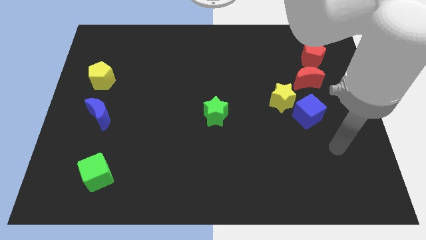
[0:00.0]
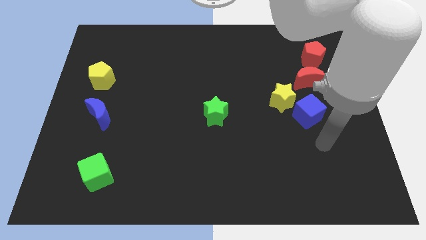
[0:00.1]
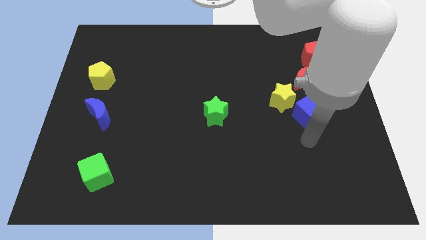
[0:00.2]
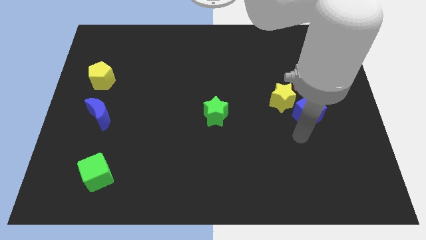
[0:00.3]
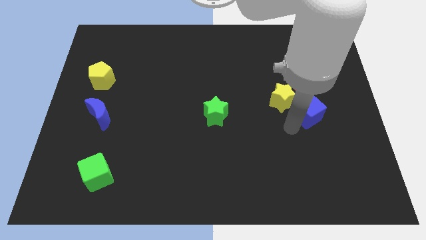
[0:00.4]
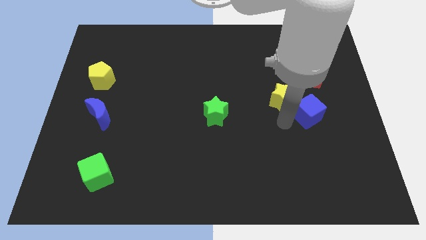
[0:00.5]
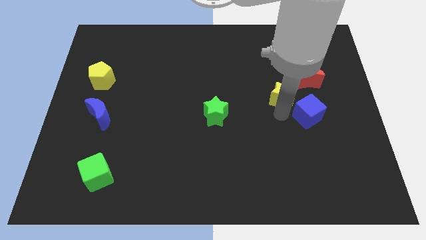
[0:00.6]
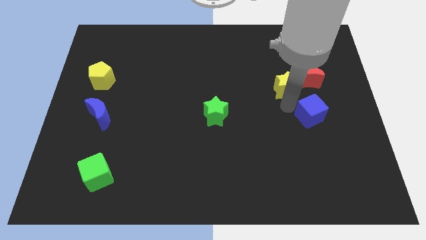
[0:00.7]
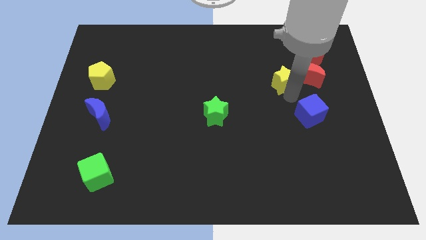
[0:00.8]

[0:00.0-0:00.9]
separate the blue cube from the yellow star

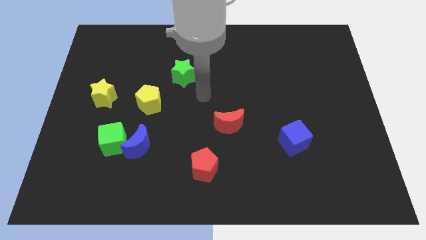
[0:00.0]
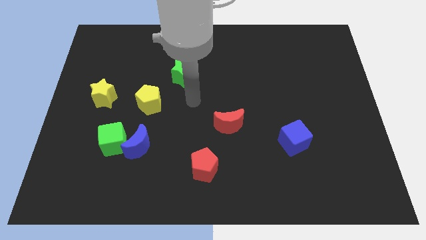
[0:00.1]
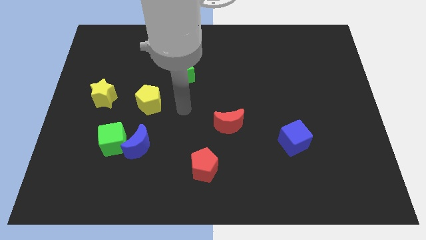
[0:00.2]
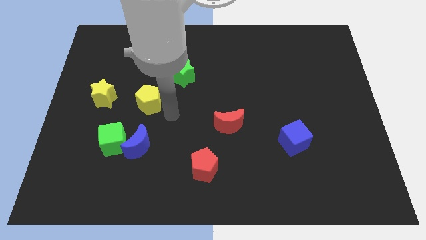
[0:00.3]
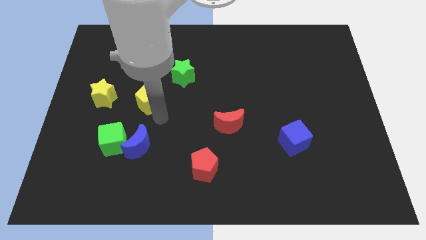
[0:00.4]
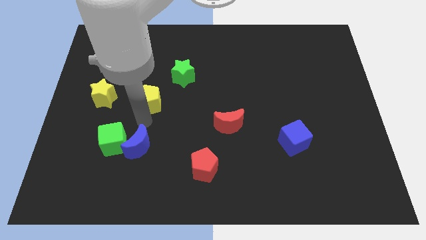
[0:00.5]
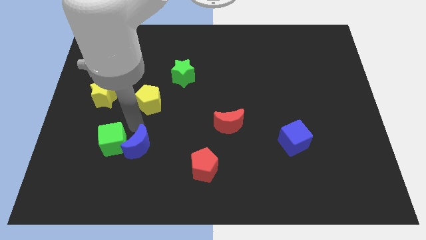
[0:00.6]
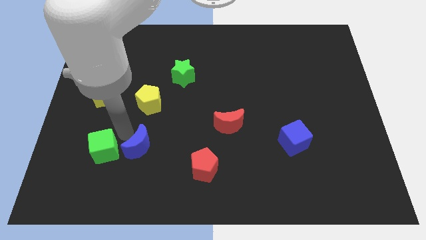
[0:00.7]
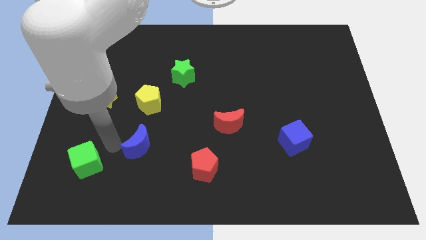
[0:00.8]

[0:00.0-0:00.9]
move the blue moon away from the green cube

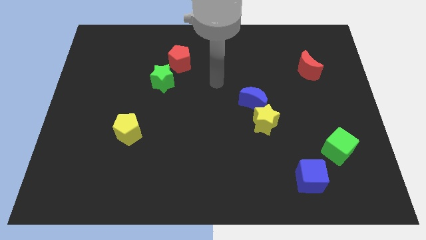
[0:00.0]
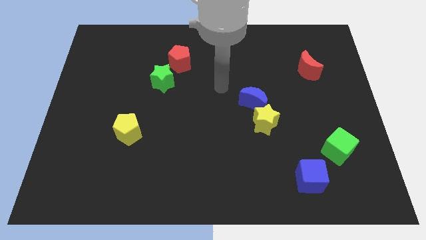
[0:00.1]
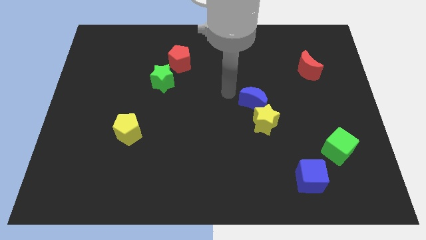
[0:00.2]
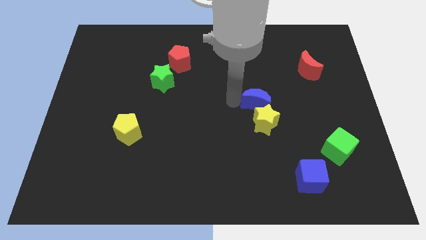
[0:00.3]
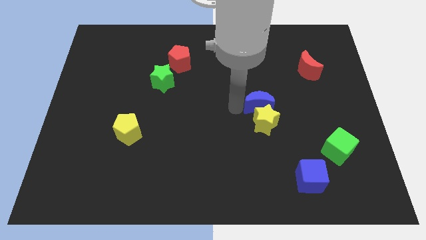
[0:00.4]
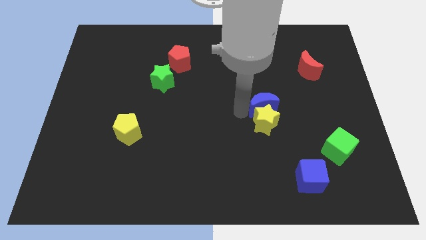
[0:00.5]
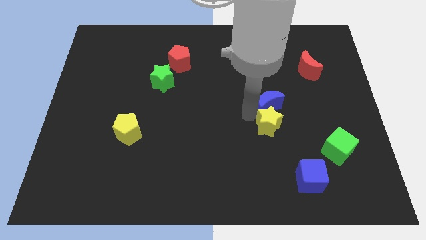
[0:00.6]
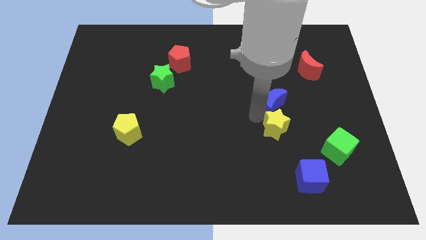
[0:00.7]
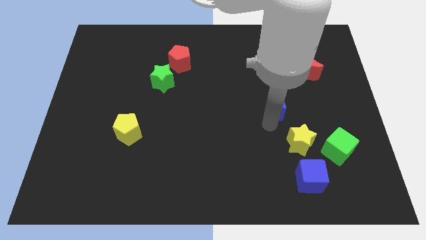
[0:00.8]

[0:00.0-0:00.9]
pull the blue moon apart from the yellow star

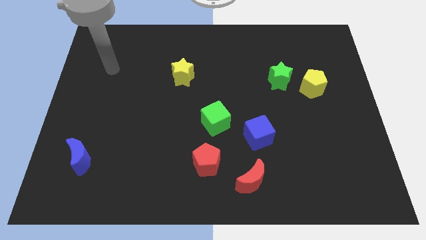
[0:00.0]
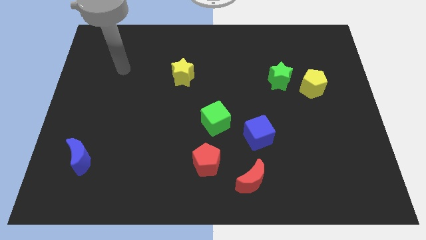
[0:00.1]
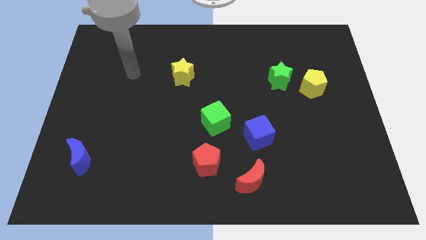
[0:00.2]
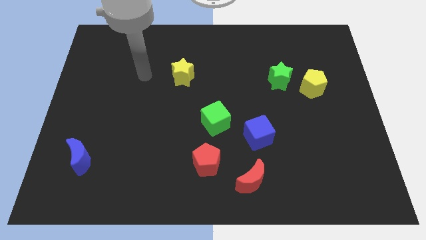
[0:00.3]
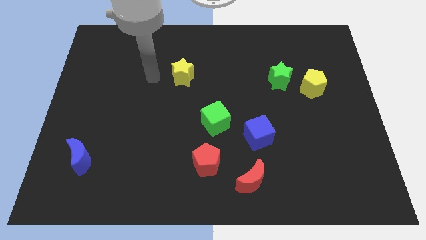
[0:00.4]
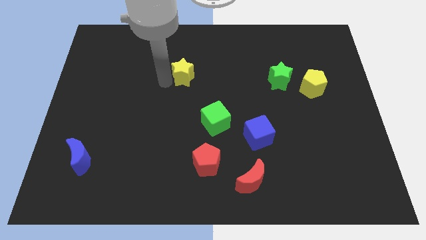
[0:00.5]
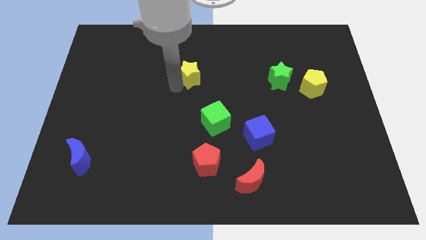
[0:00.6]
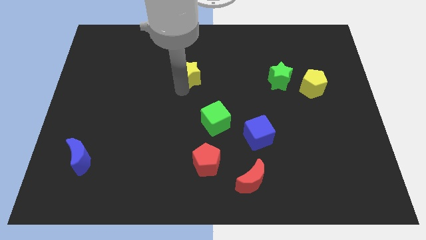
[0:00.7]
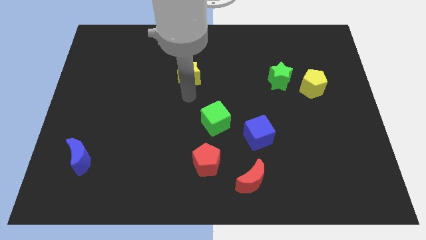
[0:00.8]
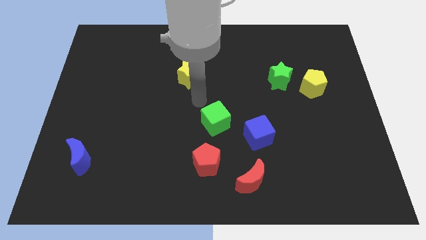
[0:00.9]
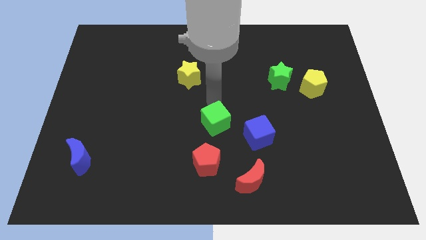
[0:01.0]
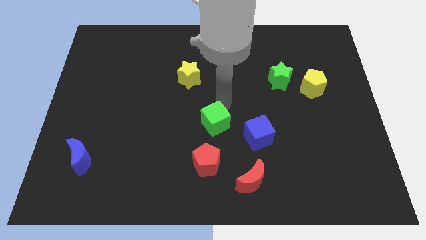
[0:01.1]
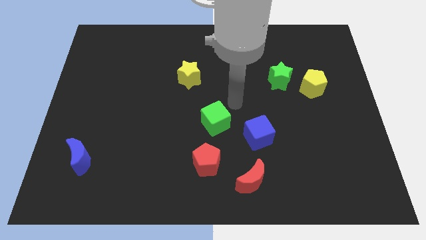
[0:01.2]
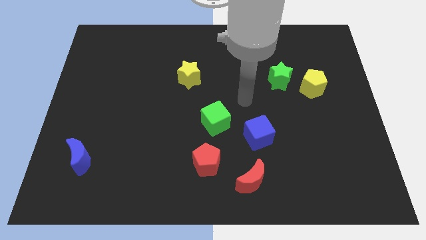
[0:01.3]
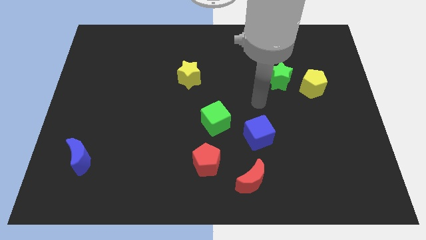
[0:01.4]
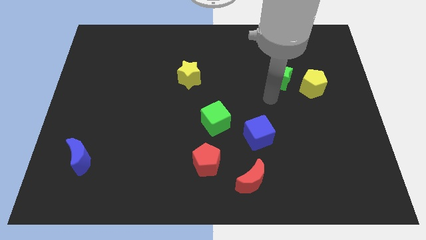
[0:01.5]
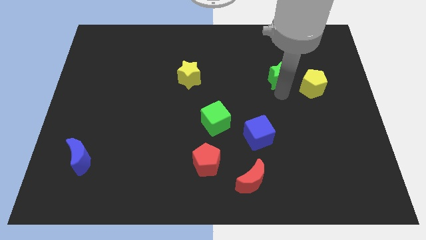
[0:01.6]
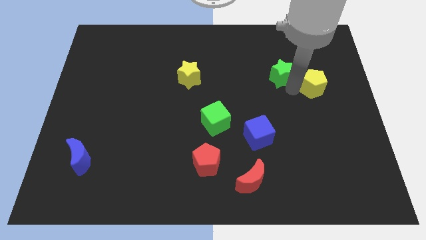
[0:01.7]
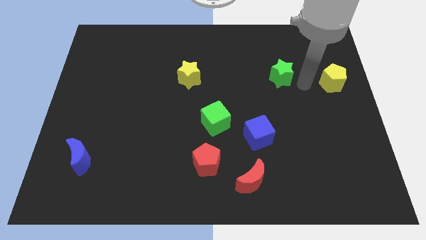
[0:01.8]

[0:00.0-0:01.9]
pull the green star apart from the yellow pentagon

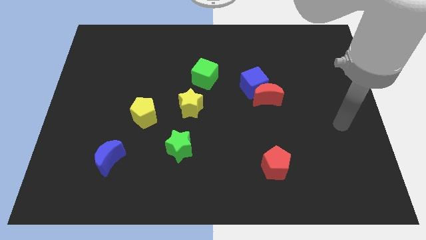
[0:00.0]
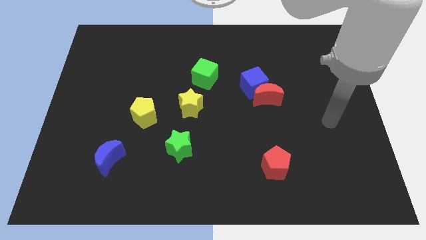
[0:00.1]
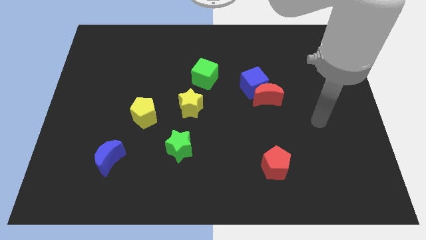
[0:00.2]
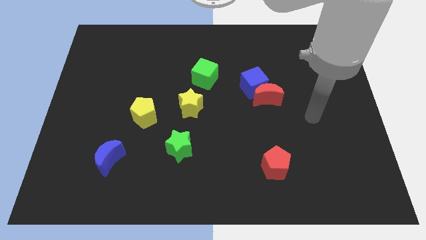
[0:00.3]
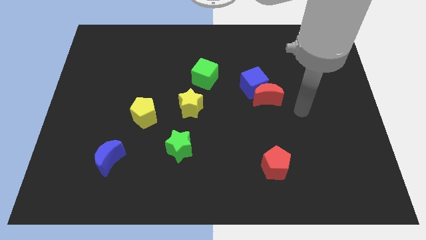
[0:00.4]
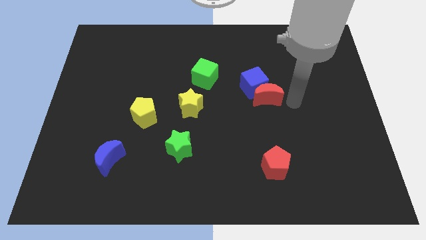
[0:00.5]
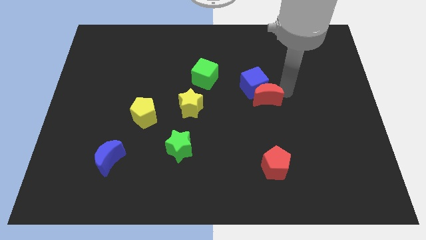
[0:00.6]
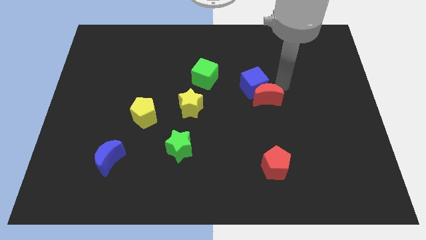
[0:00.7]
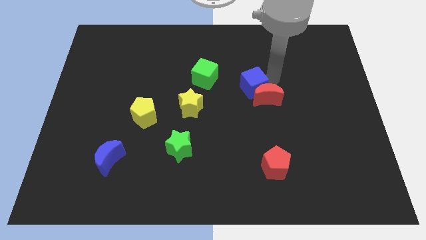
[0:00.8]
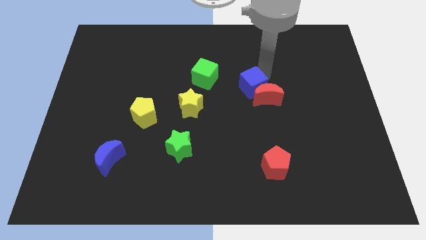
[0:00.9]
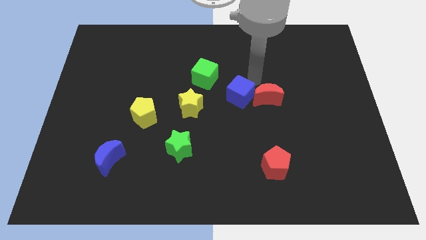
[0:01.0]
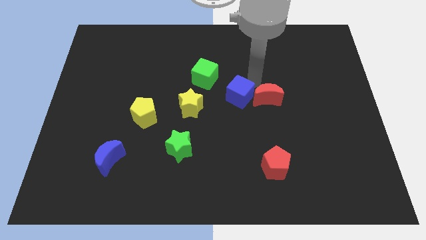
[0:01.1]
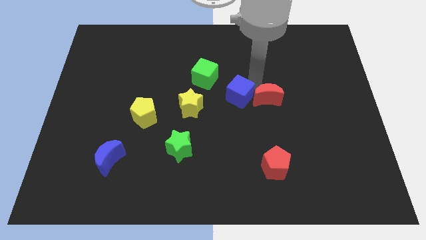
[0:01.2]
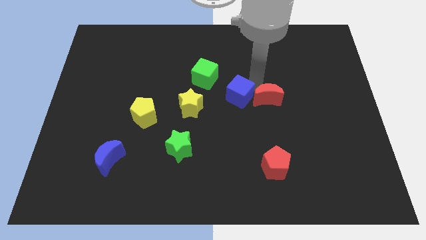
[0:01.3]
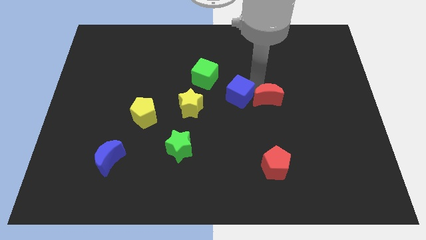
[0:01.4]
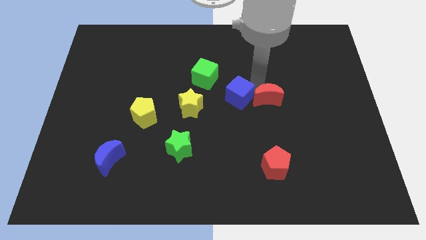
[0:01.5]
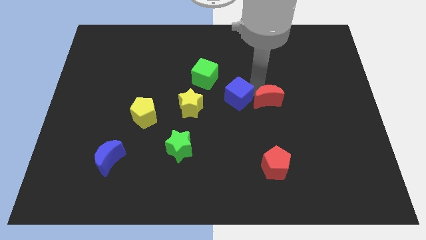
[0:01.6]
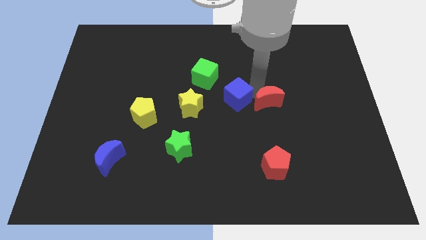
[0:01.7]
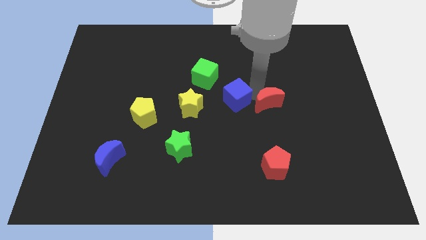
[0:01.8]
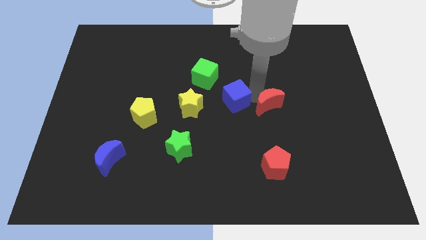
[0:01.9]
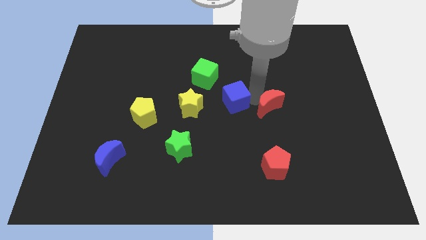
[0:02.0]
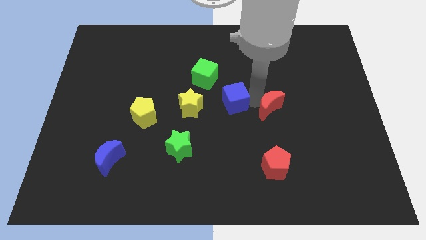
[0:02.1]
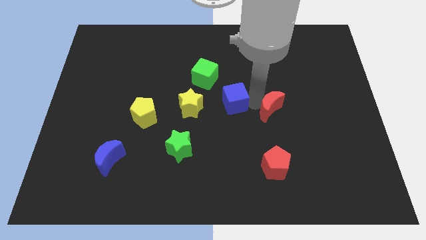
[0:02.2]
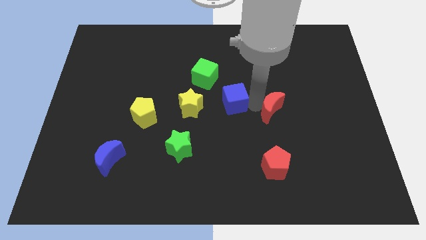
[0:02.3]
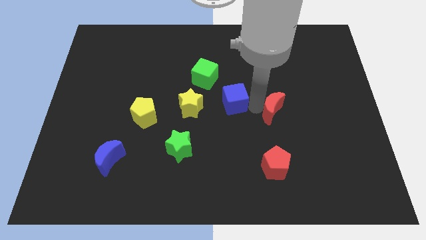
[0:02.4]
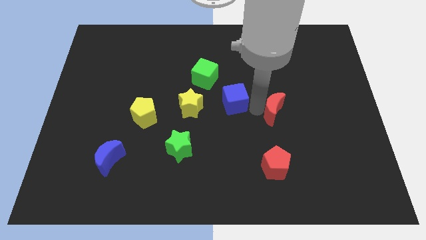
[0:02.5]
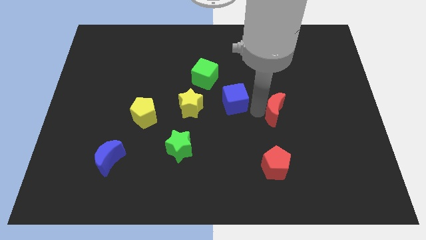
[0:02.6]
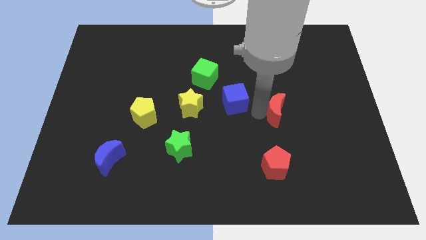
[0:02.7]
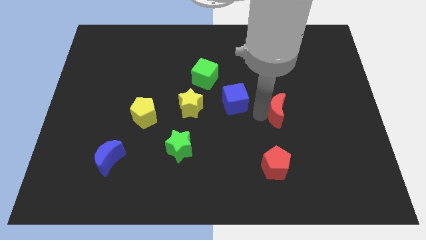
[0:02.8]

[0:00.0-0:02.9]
separate the red moon from the blue cube

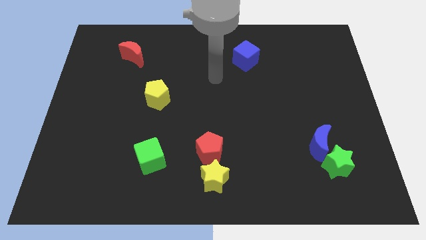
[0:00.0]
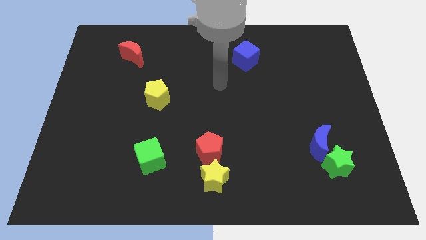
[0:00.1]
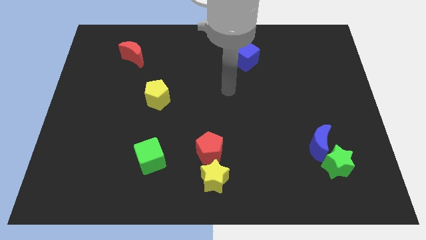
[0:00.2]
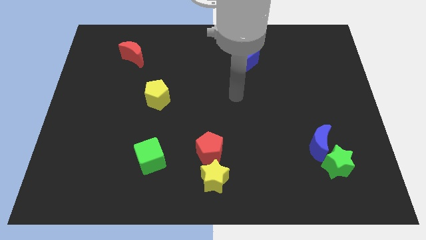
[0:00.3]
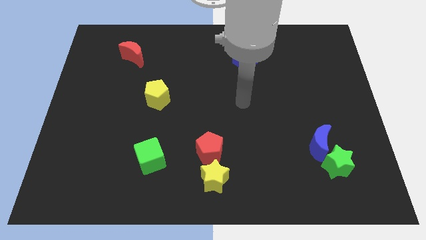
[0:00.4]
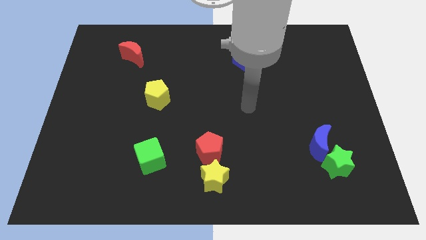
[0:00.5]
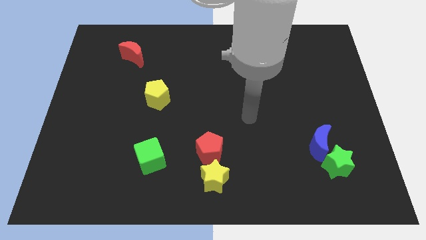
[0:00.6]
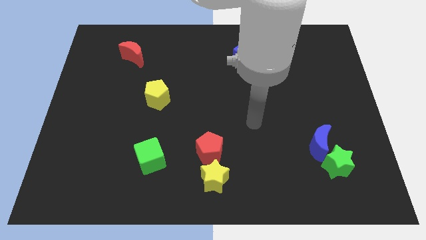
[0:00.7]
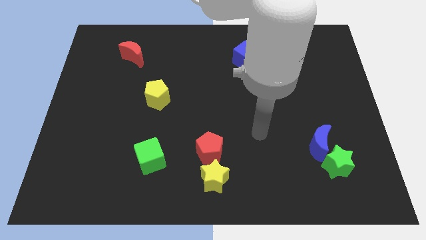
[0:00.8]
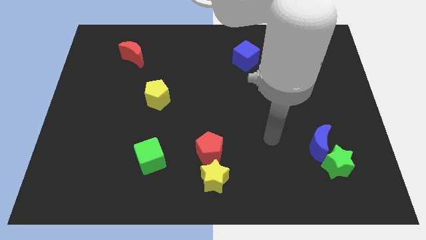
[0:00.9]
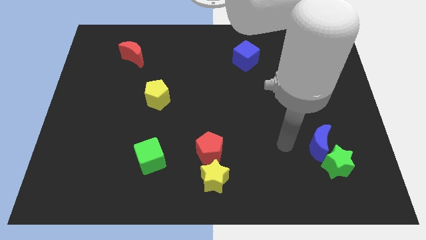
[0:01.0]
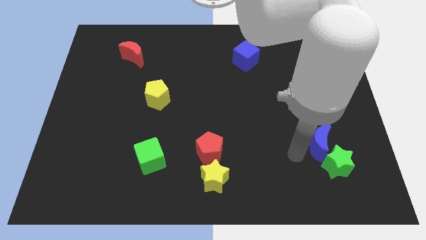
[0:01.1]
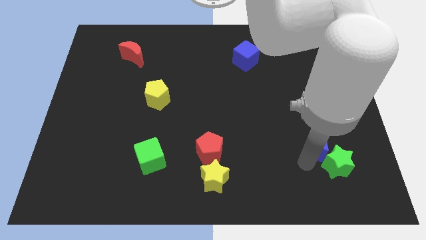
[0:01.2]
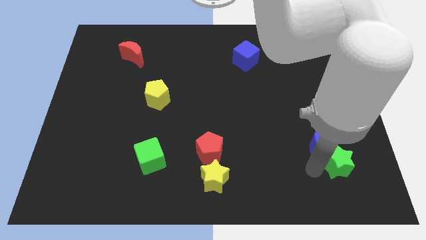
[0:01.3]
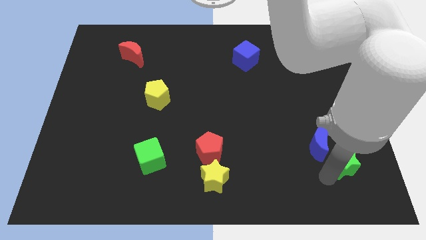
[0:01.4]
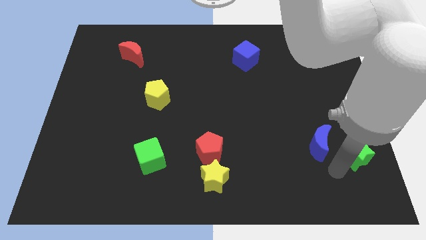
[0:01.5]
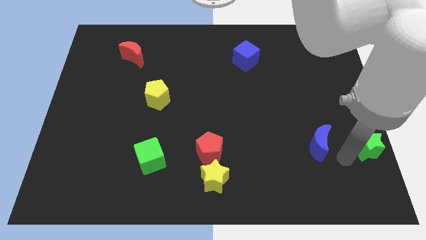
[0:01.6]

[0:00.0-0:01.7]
move the blue moon away from the green star

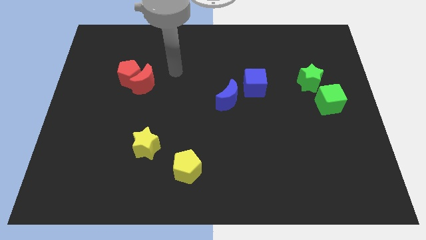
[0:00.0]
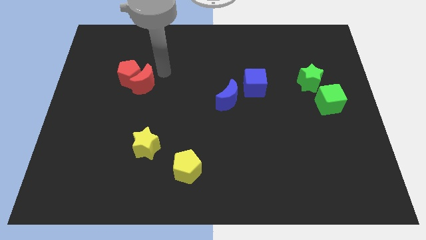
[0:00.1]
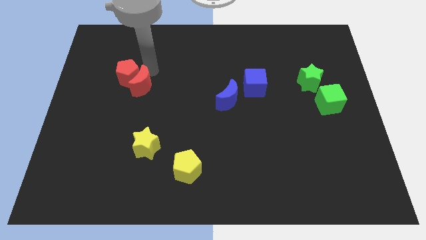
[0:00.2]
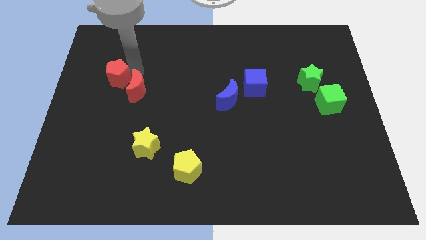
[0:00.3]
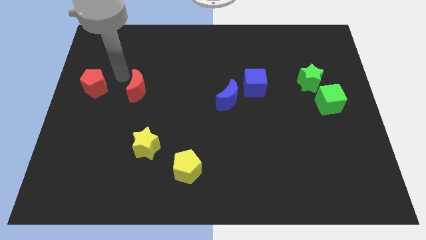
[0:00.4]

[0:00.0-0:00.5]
pull the red moon apart from the red pentagon
